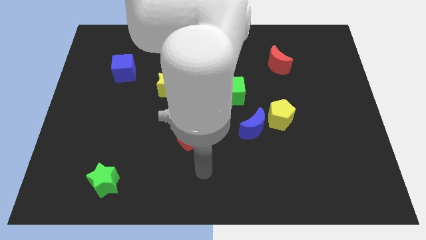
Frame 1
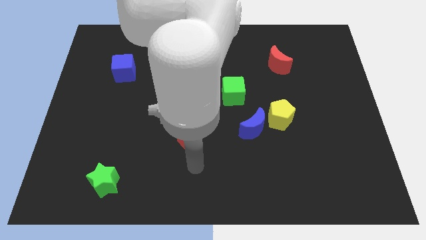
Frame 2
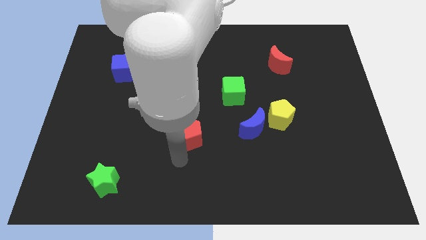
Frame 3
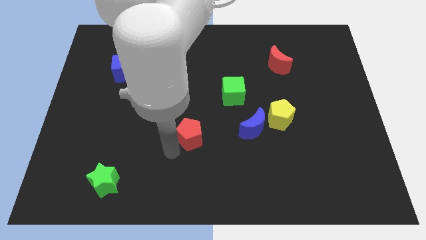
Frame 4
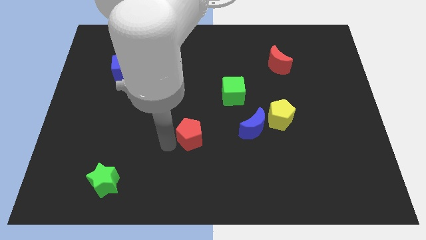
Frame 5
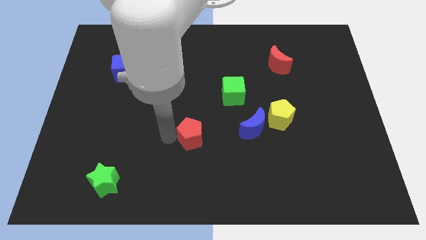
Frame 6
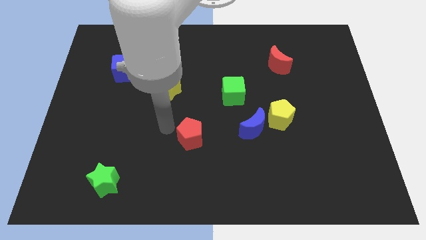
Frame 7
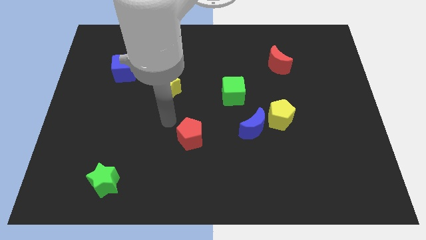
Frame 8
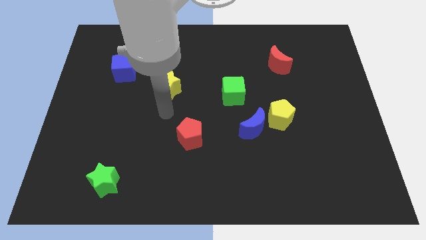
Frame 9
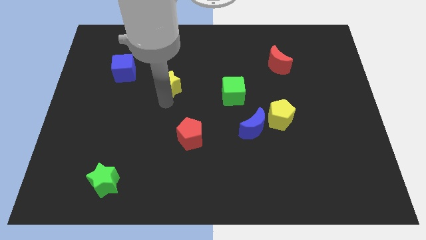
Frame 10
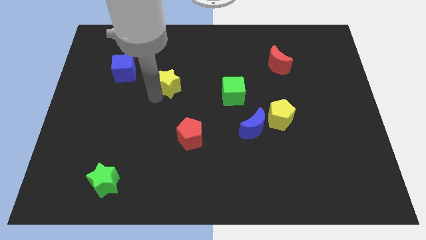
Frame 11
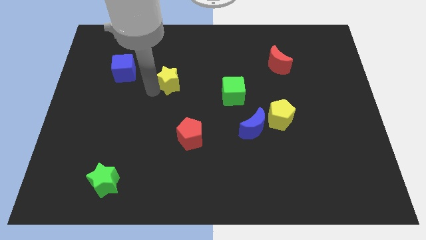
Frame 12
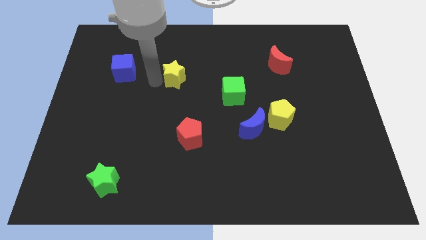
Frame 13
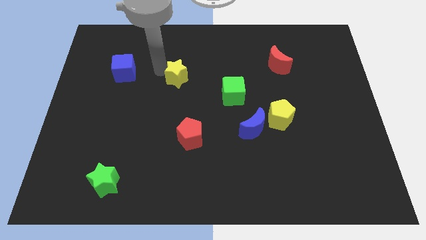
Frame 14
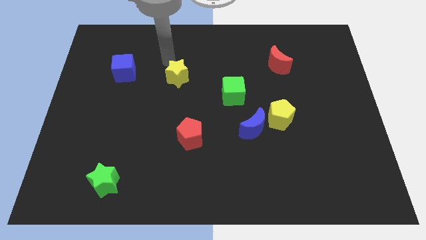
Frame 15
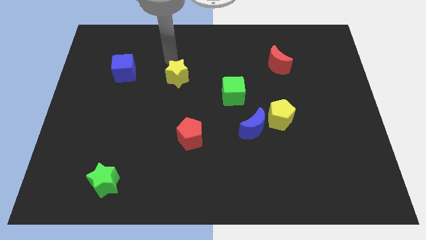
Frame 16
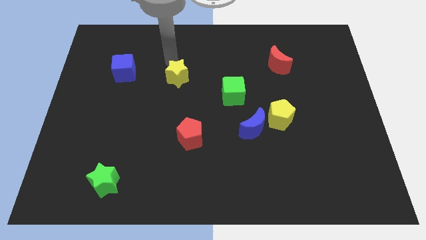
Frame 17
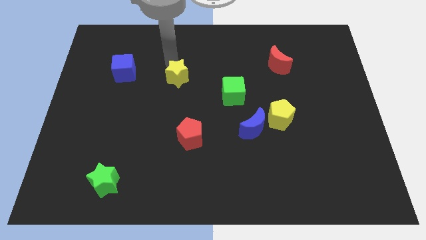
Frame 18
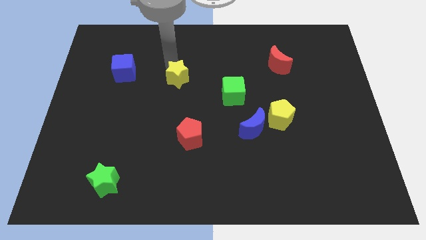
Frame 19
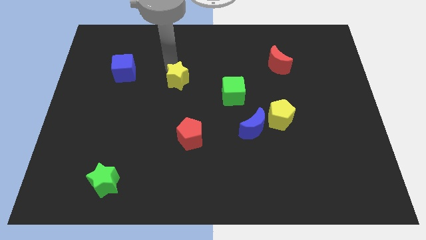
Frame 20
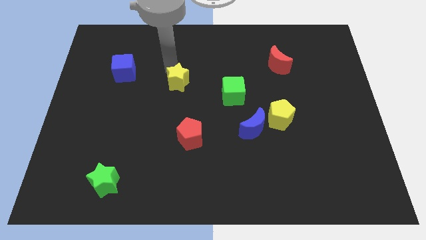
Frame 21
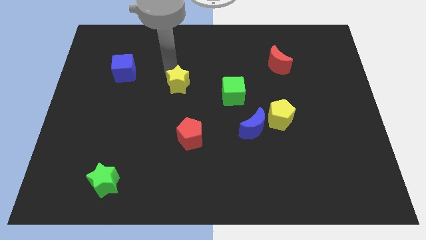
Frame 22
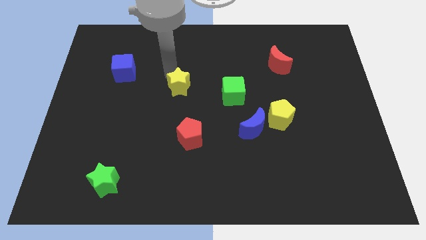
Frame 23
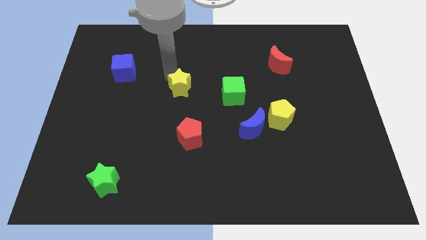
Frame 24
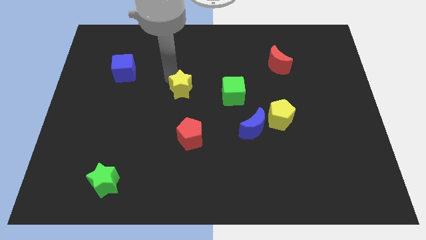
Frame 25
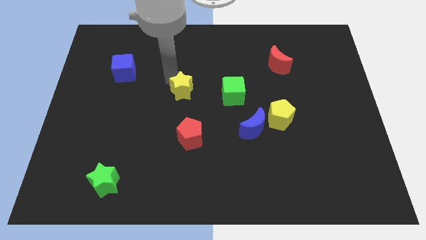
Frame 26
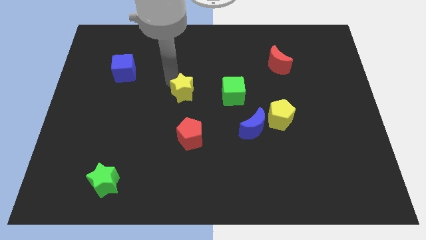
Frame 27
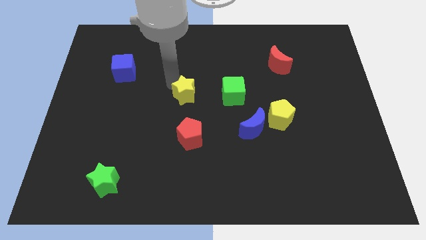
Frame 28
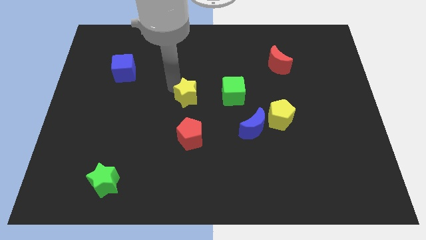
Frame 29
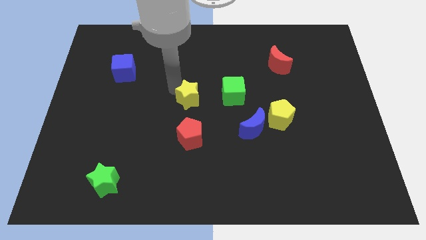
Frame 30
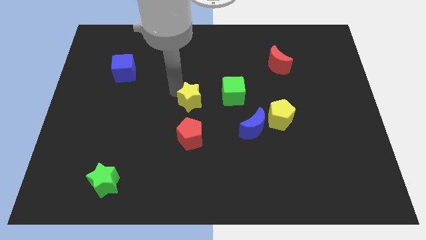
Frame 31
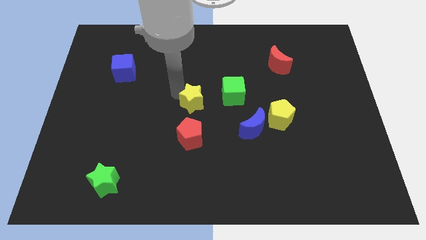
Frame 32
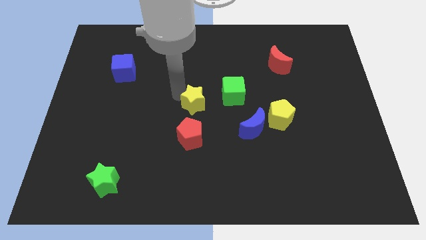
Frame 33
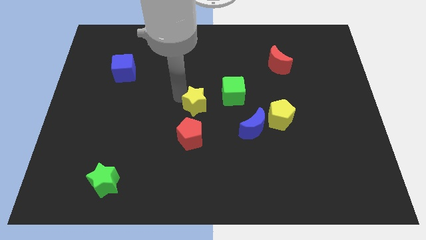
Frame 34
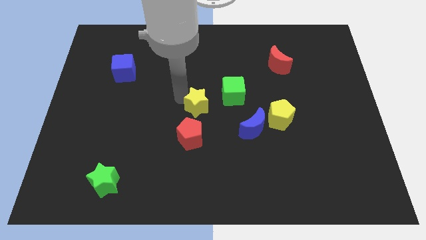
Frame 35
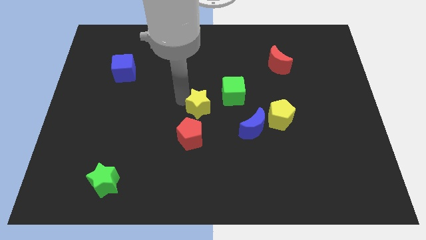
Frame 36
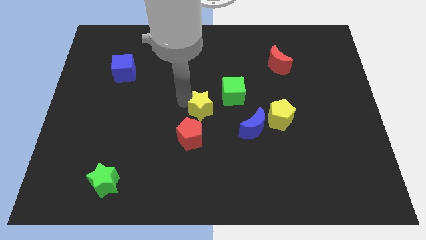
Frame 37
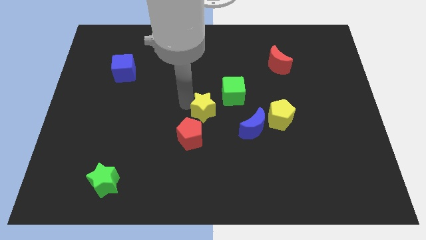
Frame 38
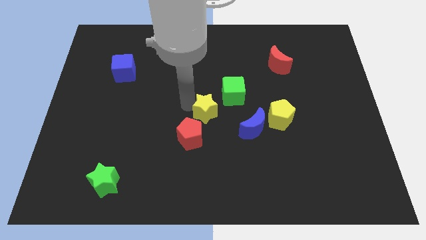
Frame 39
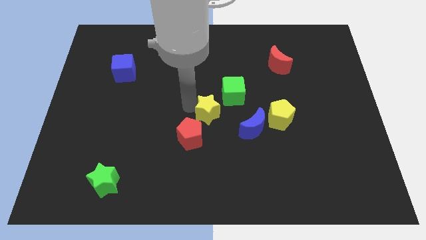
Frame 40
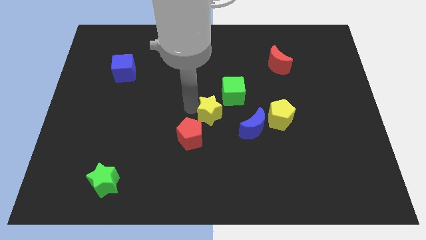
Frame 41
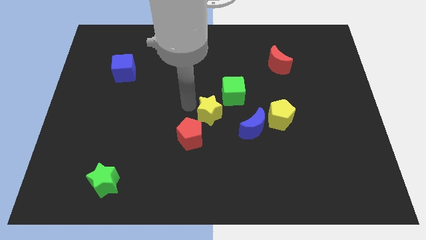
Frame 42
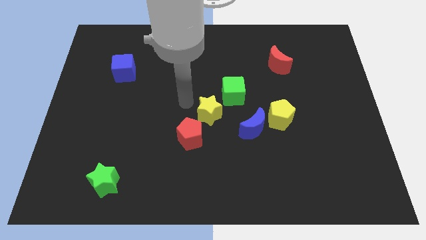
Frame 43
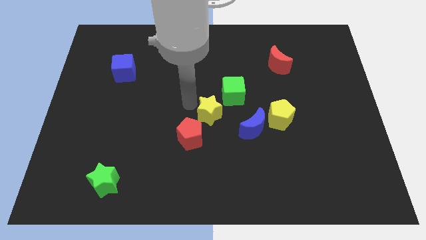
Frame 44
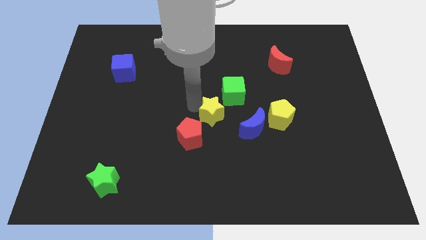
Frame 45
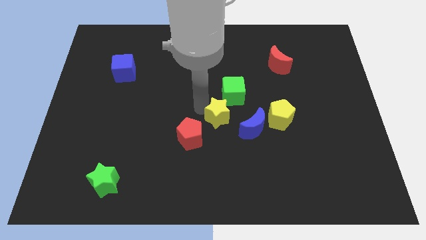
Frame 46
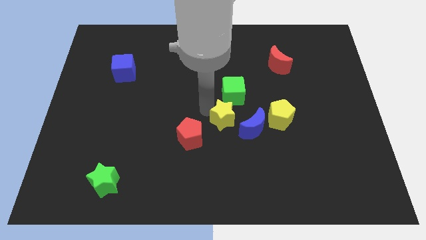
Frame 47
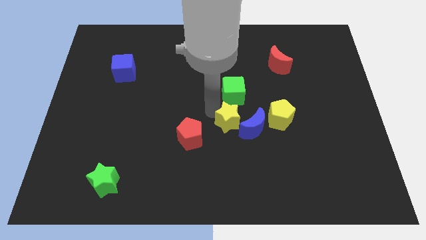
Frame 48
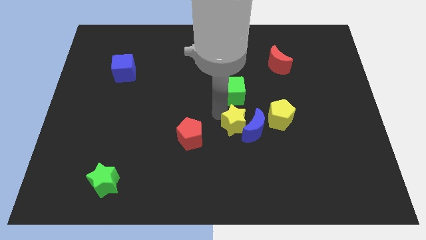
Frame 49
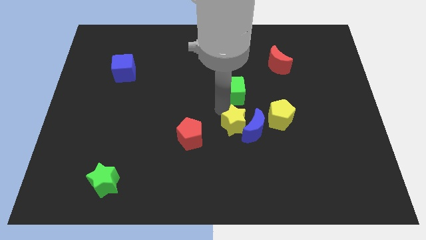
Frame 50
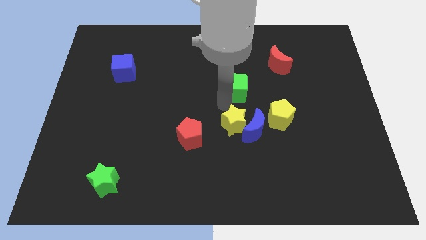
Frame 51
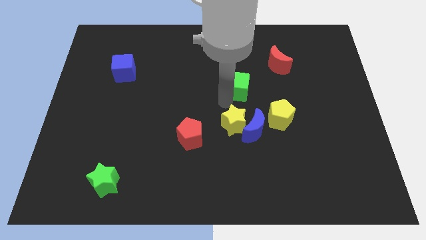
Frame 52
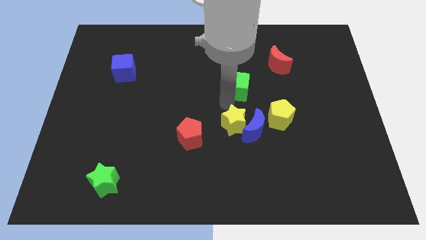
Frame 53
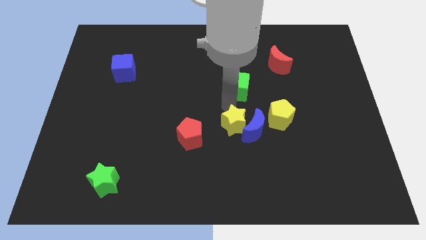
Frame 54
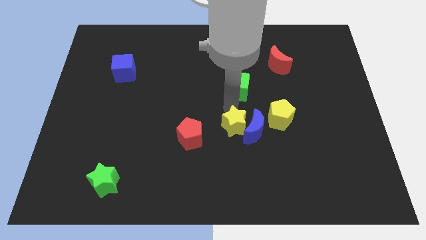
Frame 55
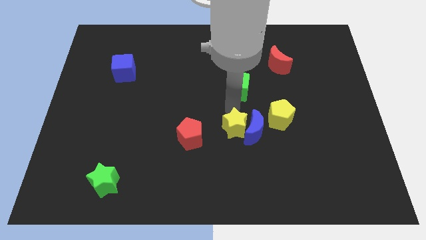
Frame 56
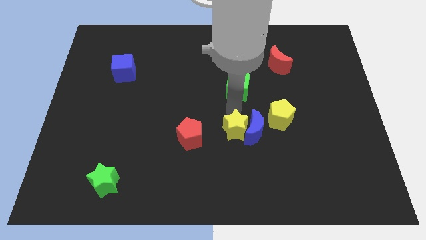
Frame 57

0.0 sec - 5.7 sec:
push the yellow star diagonally downwards and to the right

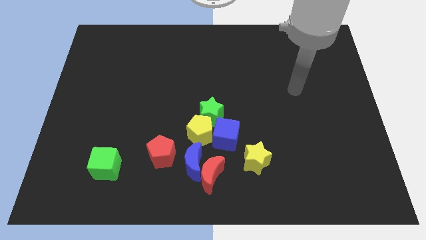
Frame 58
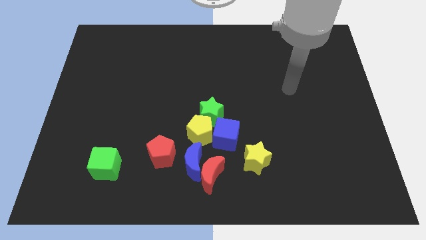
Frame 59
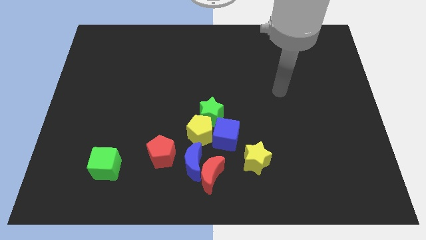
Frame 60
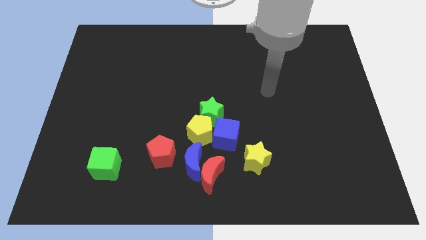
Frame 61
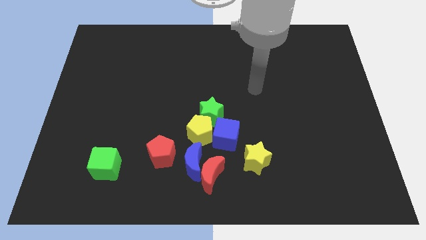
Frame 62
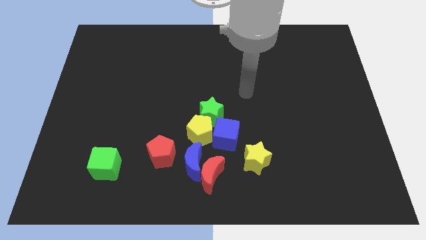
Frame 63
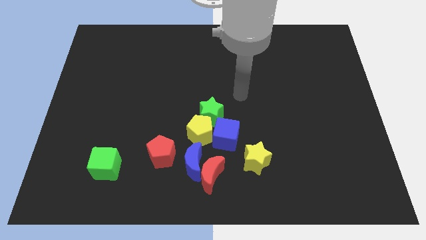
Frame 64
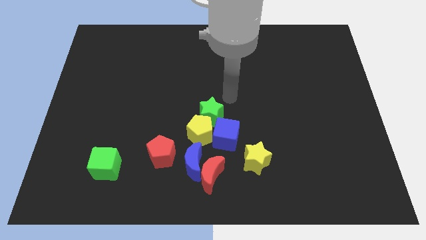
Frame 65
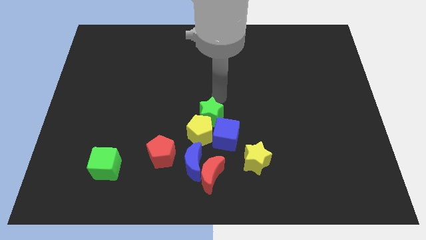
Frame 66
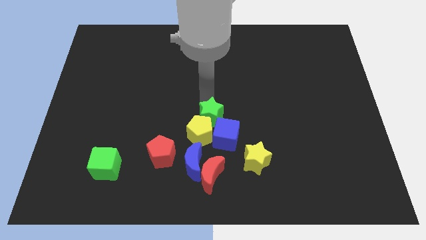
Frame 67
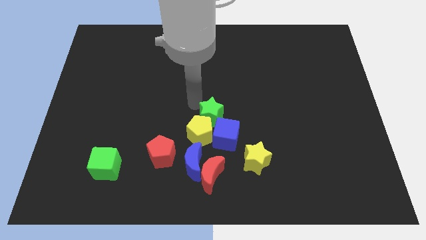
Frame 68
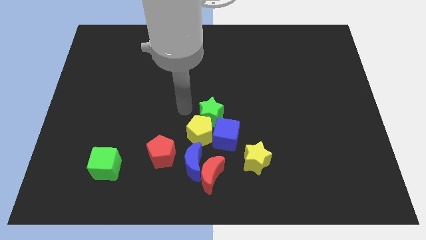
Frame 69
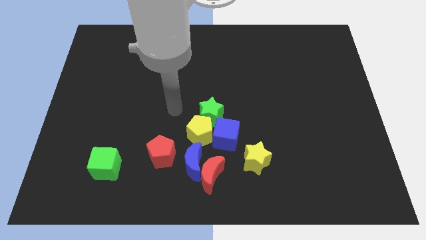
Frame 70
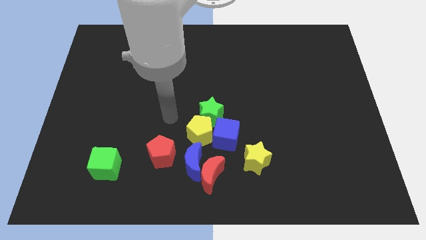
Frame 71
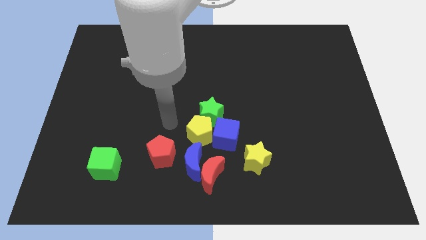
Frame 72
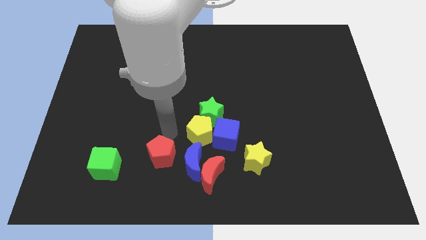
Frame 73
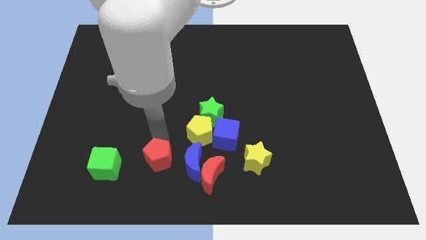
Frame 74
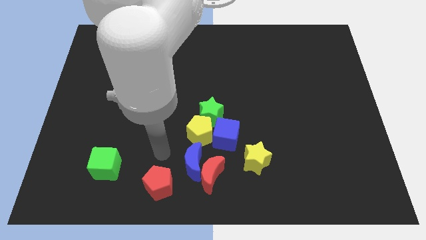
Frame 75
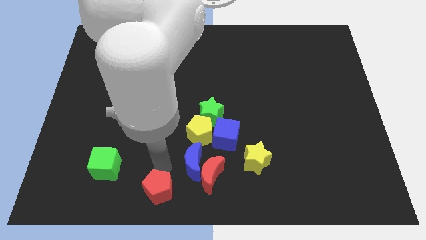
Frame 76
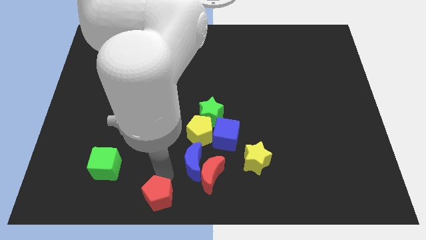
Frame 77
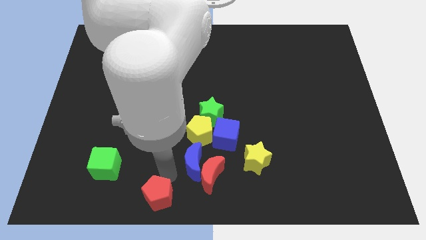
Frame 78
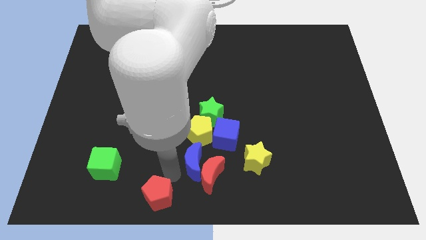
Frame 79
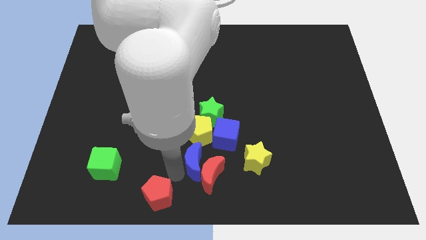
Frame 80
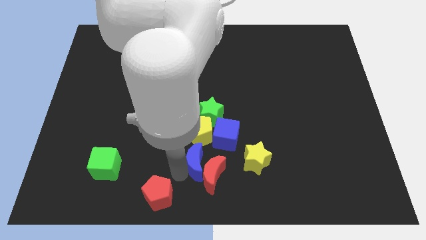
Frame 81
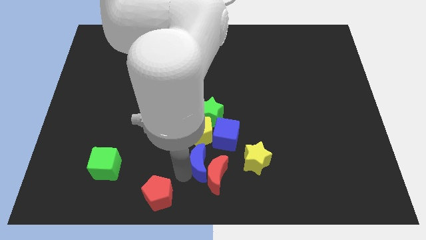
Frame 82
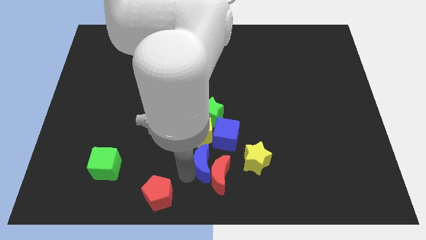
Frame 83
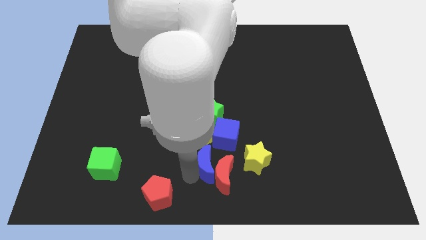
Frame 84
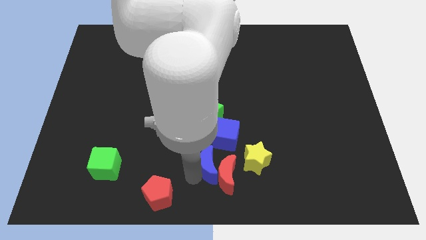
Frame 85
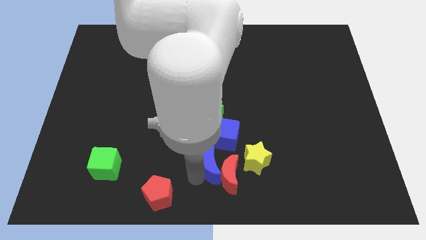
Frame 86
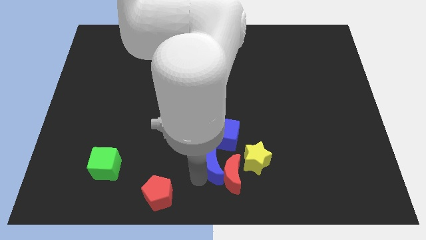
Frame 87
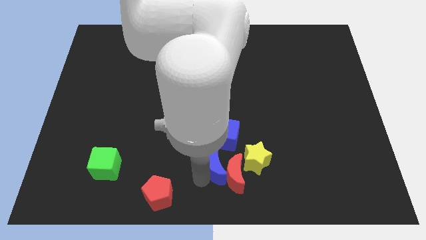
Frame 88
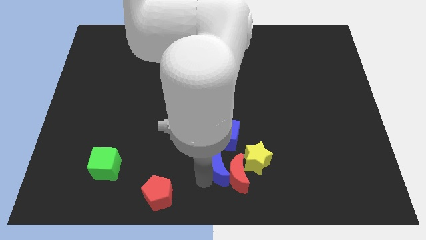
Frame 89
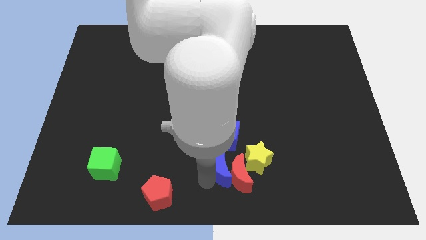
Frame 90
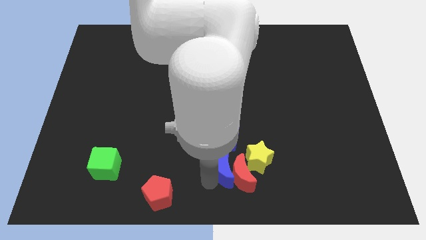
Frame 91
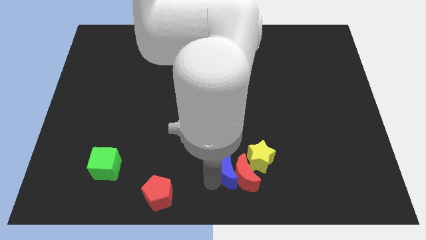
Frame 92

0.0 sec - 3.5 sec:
push the blue moon a little right
